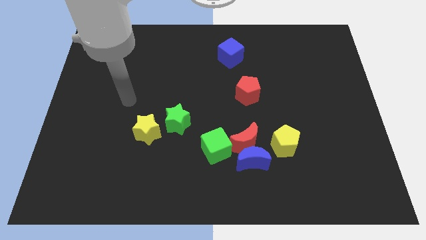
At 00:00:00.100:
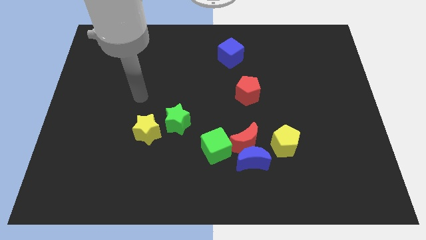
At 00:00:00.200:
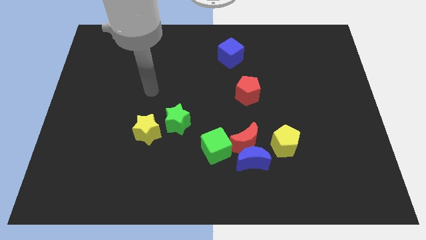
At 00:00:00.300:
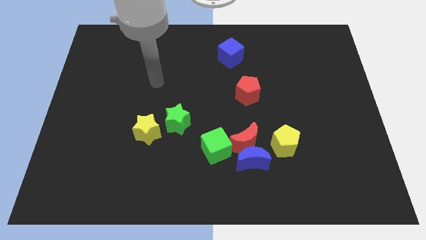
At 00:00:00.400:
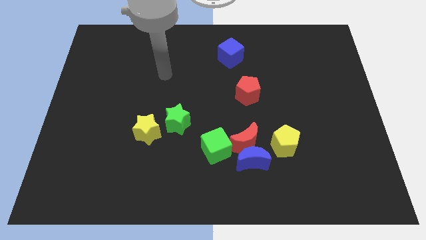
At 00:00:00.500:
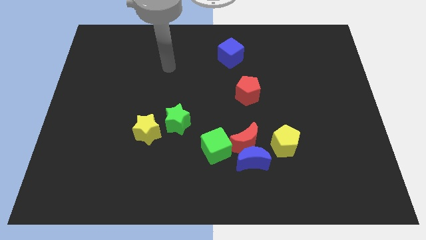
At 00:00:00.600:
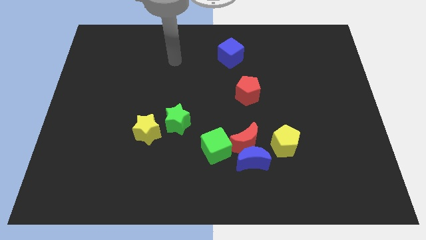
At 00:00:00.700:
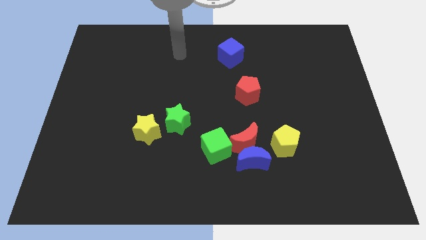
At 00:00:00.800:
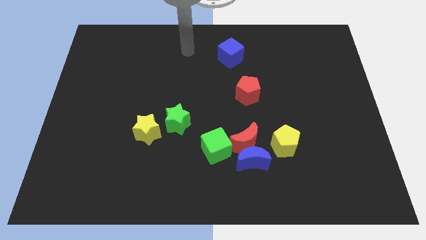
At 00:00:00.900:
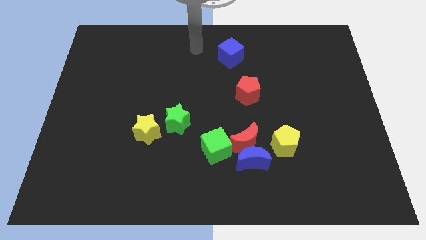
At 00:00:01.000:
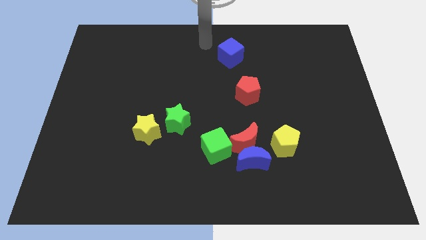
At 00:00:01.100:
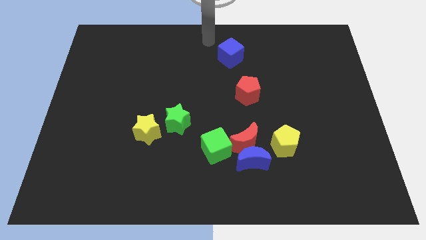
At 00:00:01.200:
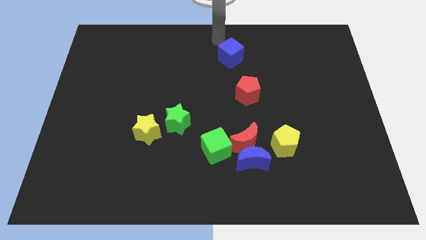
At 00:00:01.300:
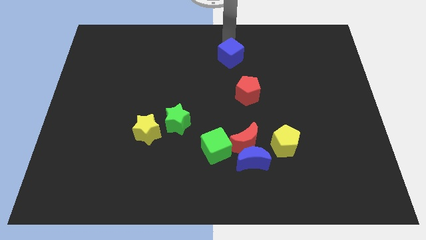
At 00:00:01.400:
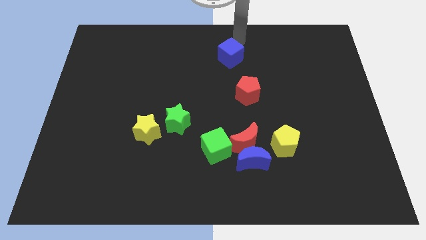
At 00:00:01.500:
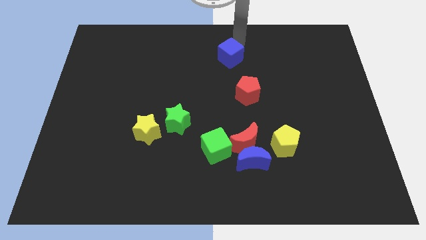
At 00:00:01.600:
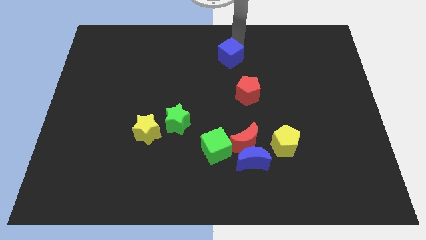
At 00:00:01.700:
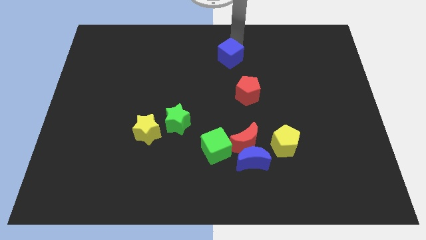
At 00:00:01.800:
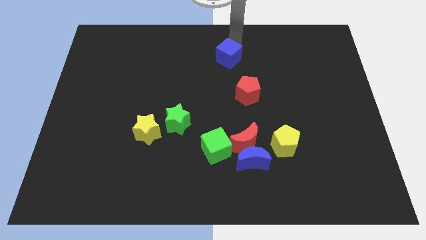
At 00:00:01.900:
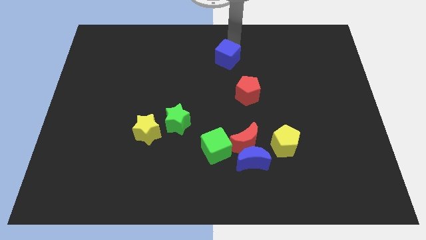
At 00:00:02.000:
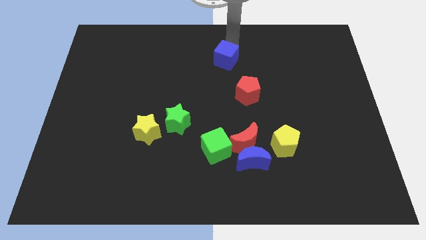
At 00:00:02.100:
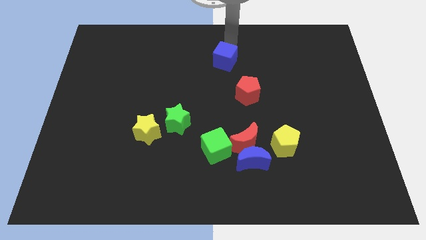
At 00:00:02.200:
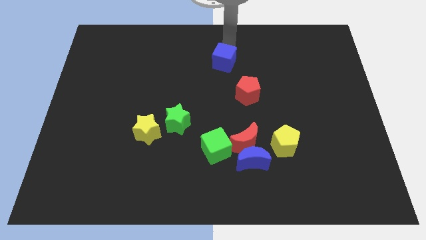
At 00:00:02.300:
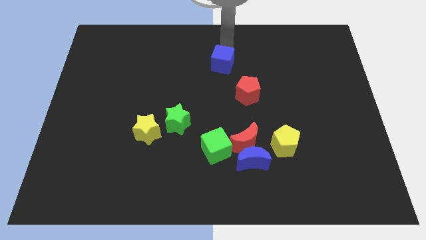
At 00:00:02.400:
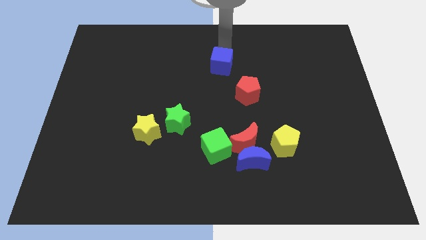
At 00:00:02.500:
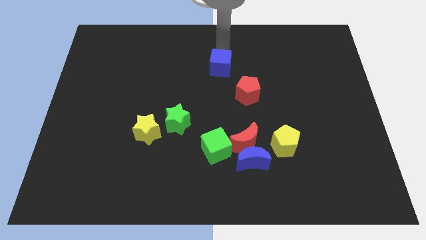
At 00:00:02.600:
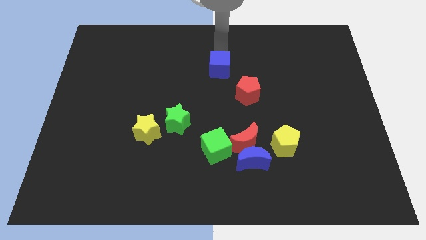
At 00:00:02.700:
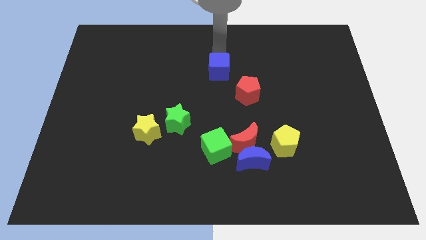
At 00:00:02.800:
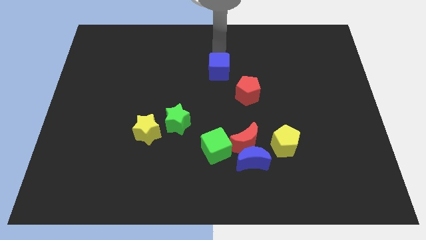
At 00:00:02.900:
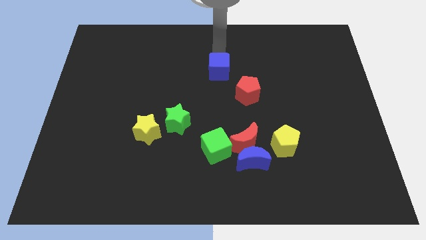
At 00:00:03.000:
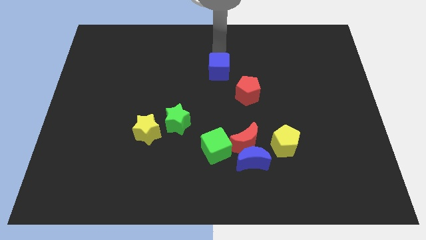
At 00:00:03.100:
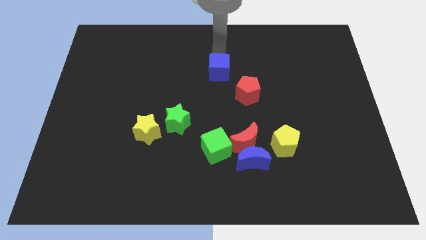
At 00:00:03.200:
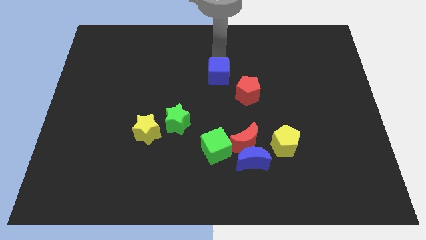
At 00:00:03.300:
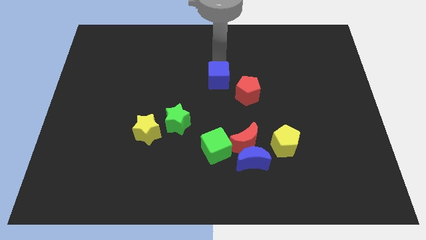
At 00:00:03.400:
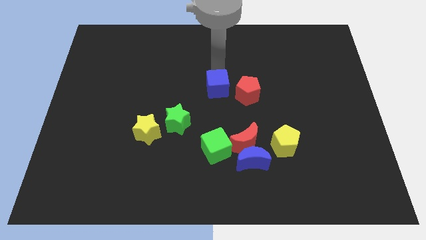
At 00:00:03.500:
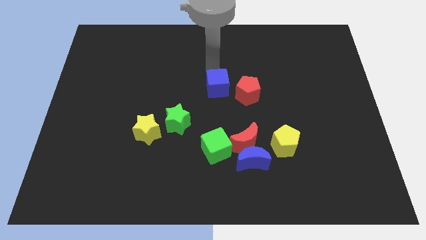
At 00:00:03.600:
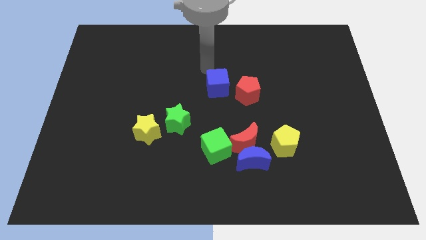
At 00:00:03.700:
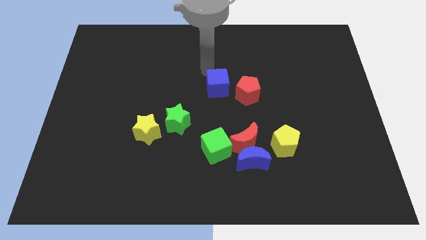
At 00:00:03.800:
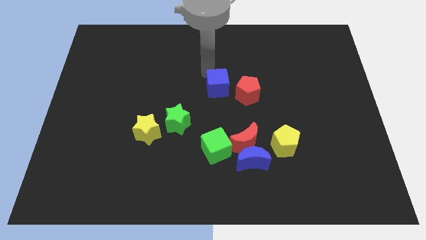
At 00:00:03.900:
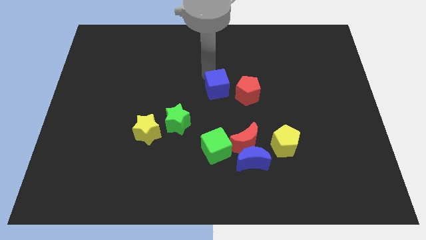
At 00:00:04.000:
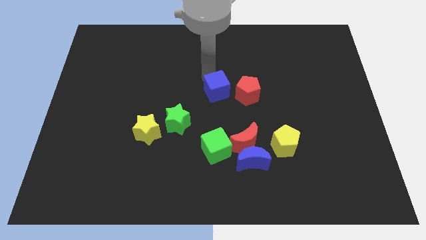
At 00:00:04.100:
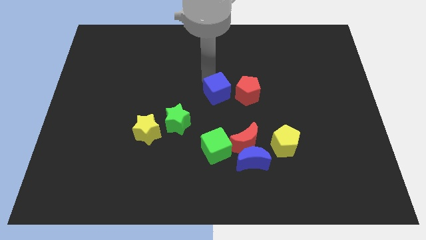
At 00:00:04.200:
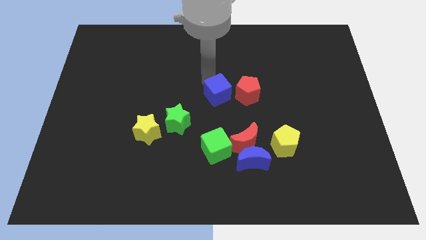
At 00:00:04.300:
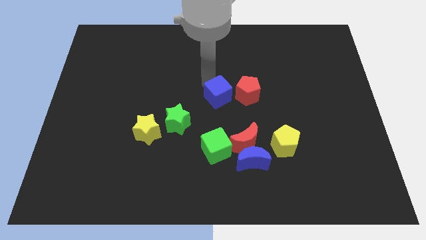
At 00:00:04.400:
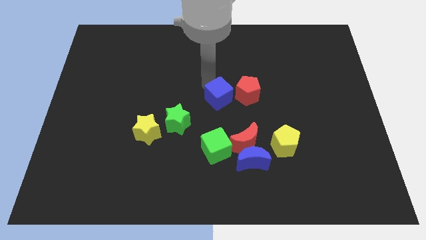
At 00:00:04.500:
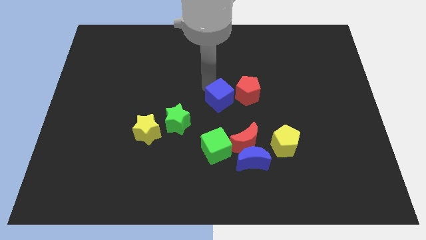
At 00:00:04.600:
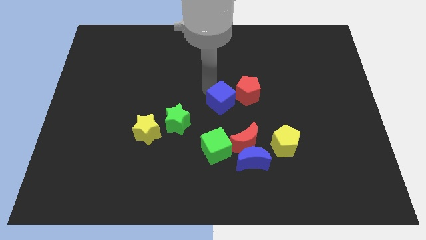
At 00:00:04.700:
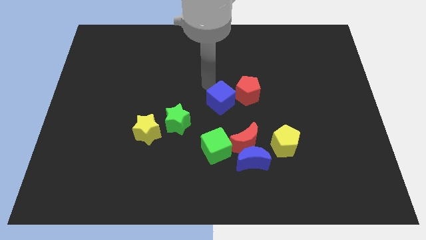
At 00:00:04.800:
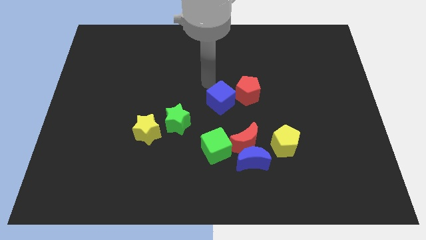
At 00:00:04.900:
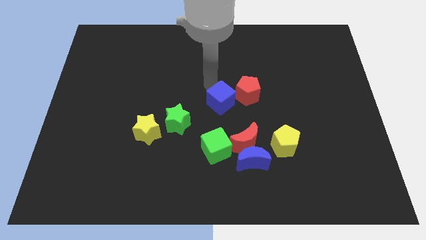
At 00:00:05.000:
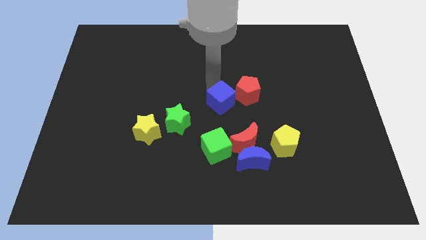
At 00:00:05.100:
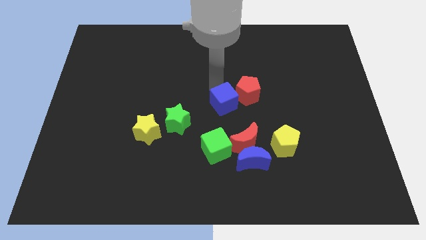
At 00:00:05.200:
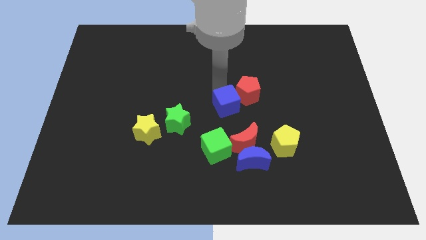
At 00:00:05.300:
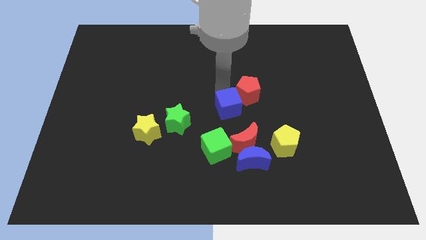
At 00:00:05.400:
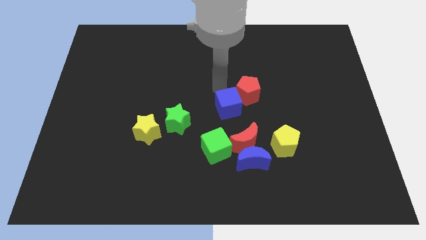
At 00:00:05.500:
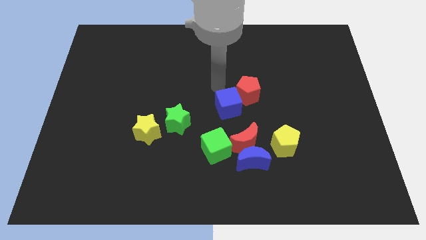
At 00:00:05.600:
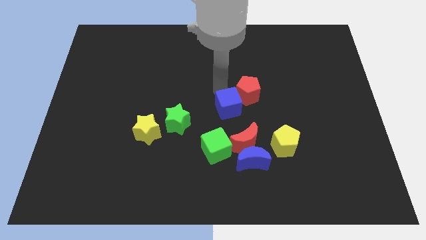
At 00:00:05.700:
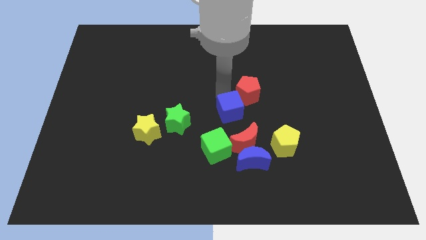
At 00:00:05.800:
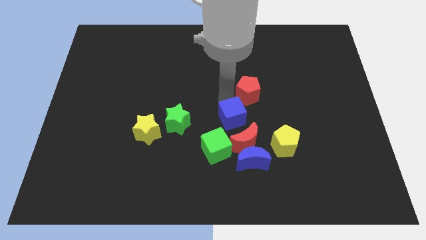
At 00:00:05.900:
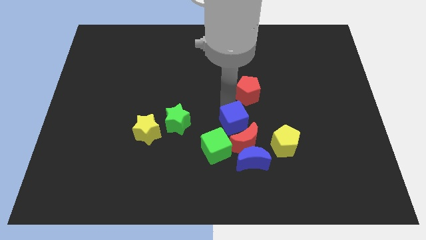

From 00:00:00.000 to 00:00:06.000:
push the blue cube next to the red moon

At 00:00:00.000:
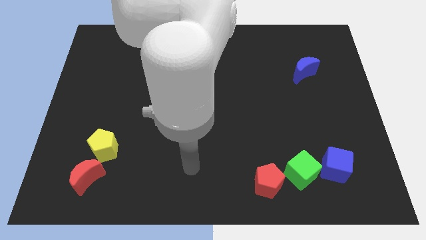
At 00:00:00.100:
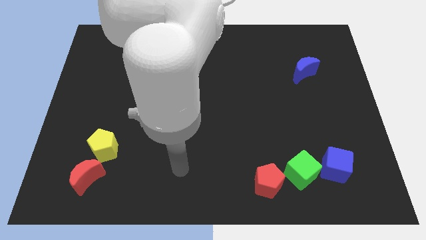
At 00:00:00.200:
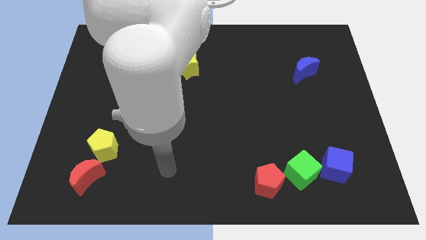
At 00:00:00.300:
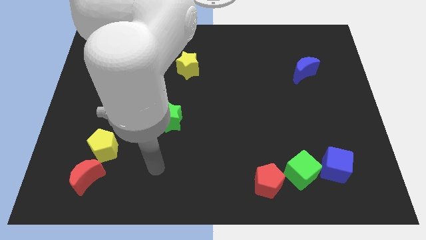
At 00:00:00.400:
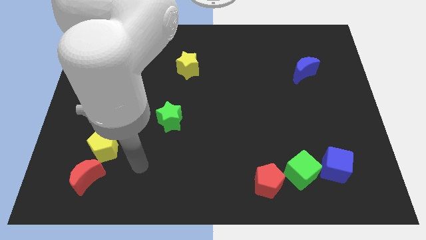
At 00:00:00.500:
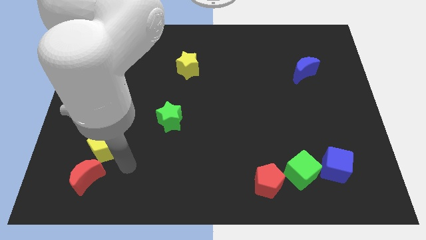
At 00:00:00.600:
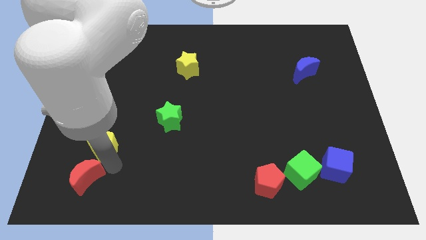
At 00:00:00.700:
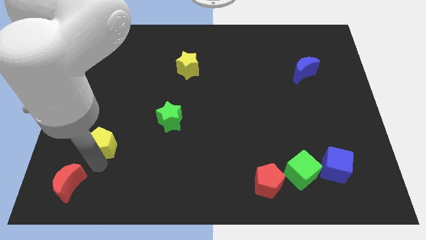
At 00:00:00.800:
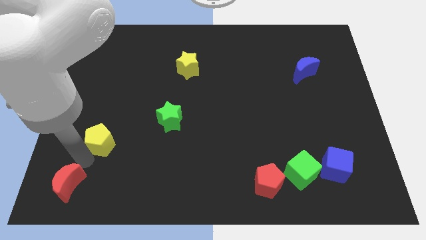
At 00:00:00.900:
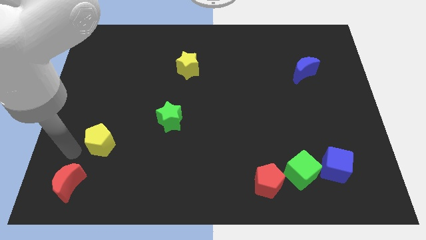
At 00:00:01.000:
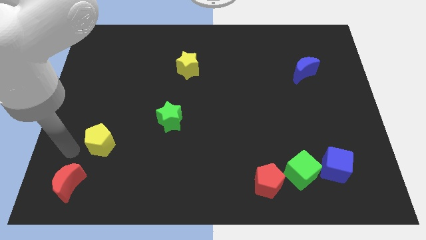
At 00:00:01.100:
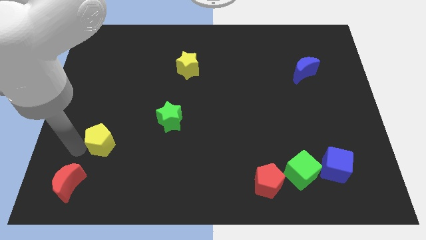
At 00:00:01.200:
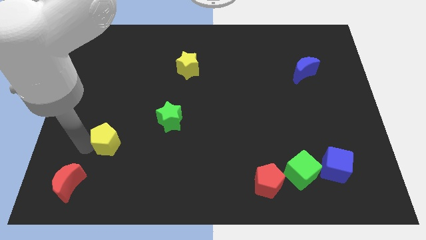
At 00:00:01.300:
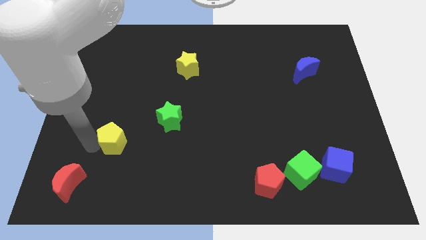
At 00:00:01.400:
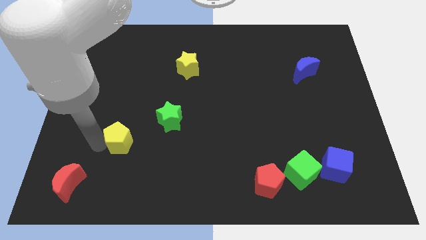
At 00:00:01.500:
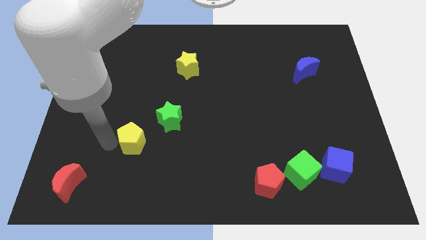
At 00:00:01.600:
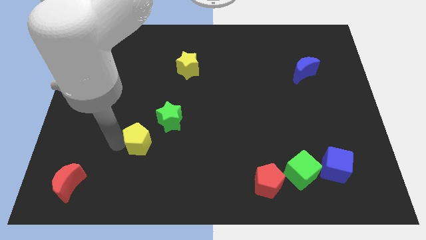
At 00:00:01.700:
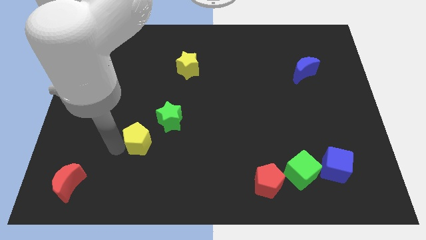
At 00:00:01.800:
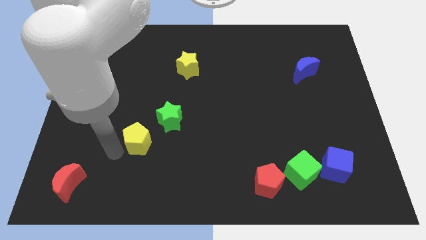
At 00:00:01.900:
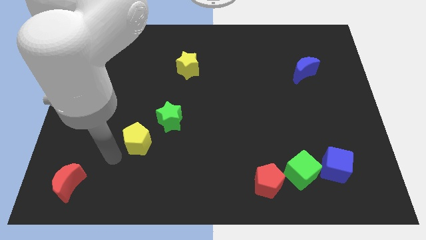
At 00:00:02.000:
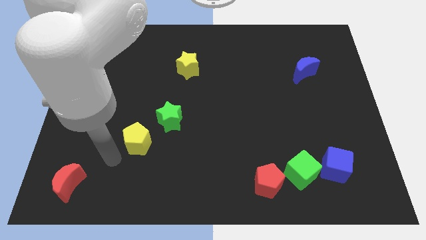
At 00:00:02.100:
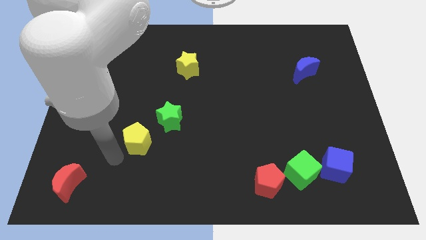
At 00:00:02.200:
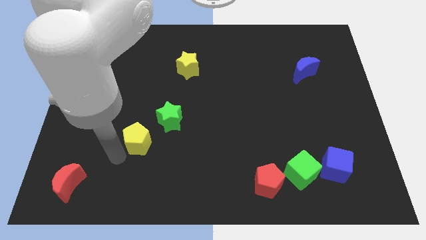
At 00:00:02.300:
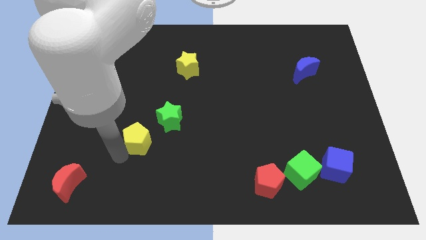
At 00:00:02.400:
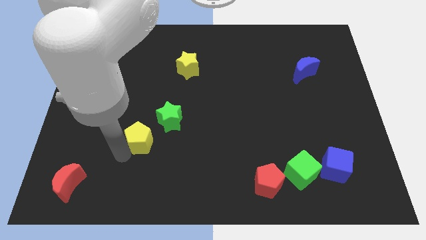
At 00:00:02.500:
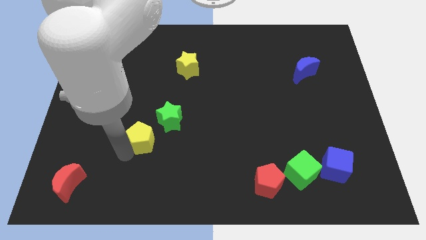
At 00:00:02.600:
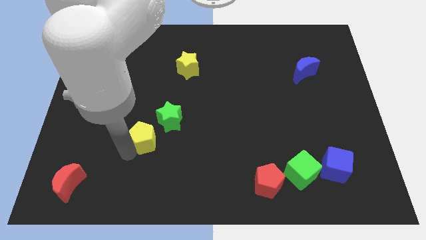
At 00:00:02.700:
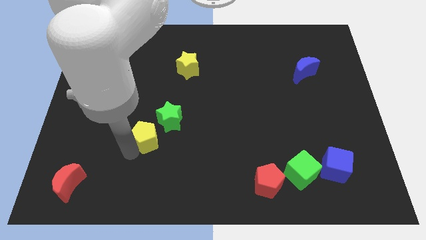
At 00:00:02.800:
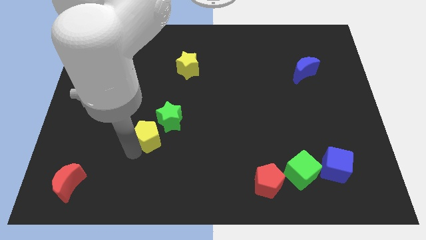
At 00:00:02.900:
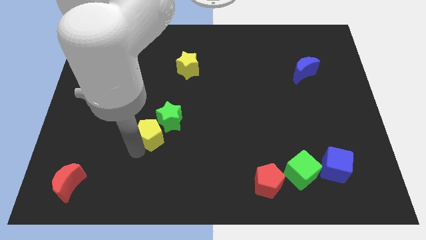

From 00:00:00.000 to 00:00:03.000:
move the yellow pentagon to the green star
